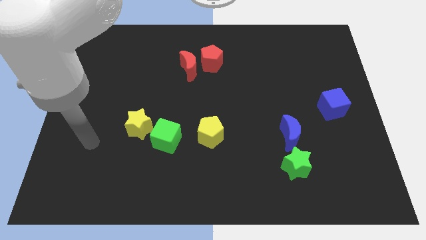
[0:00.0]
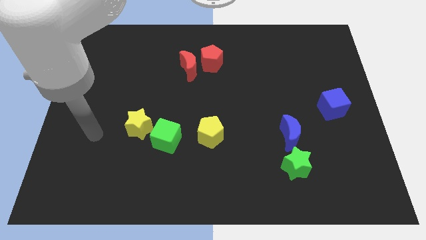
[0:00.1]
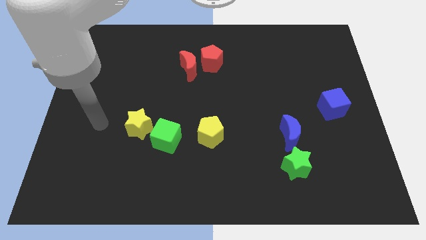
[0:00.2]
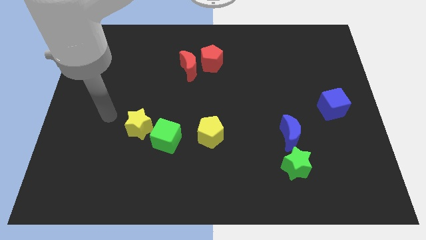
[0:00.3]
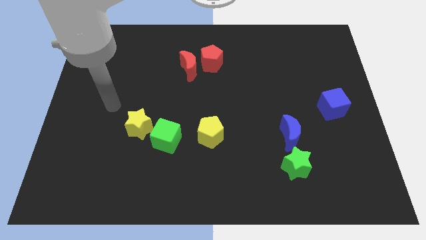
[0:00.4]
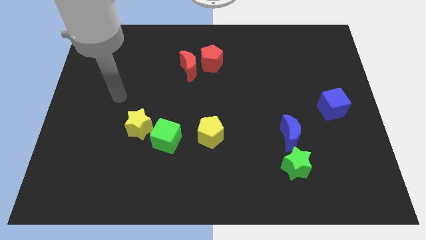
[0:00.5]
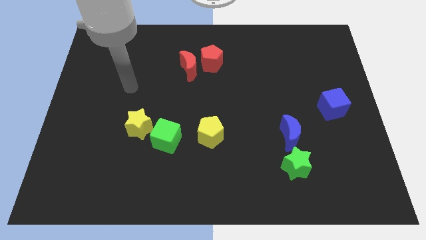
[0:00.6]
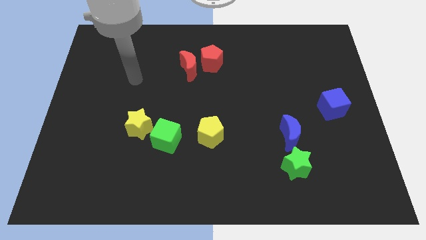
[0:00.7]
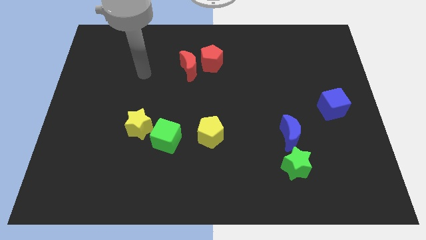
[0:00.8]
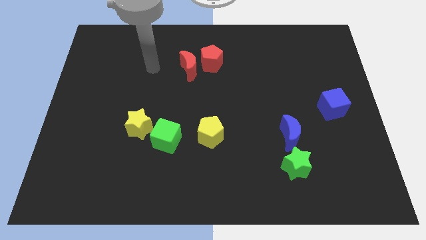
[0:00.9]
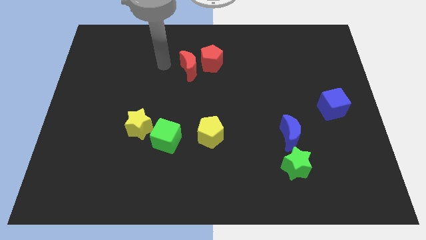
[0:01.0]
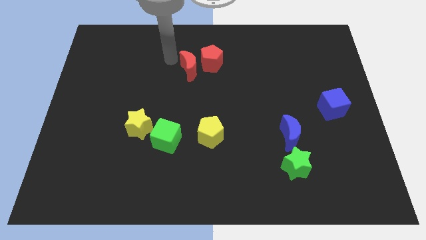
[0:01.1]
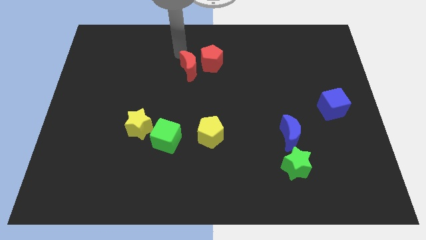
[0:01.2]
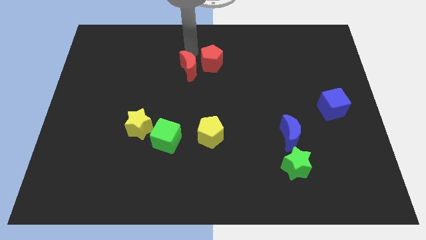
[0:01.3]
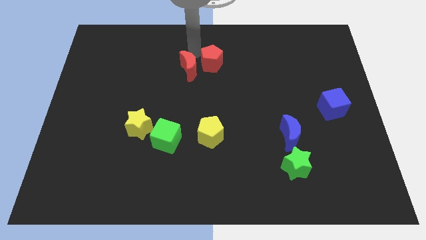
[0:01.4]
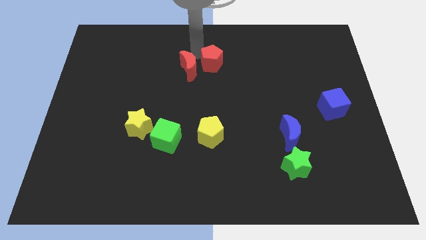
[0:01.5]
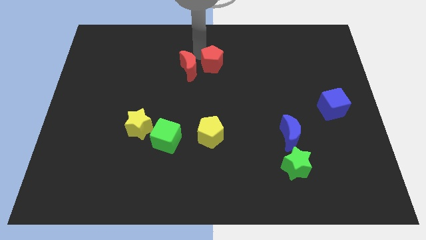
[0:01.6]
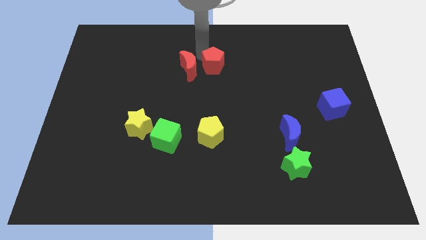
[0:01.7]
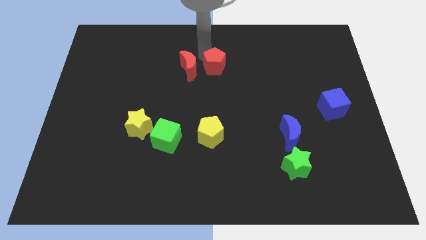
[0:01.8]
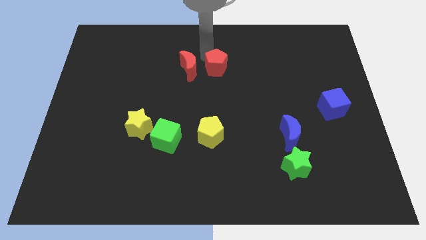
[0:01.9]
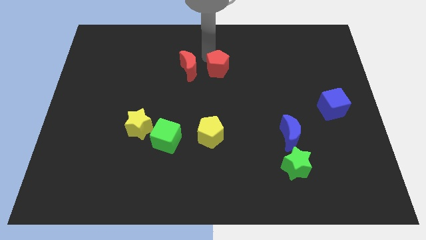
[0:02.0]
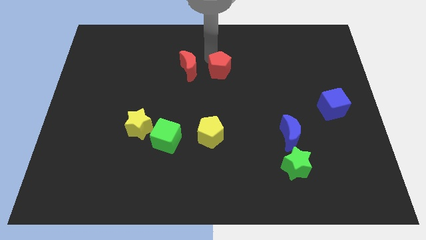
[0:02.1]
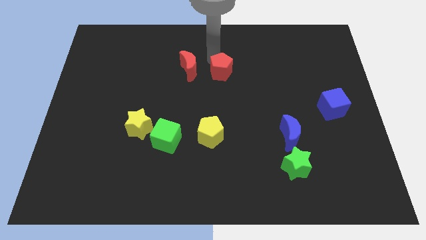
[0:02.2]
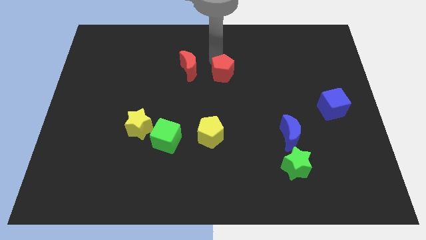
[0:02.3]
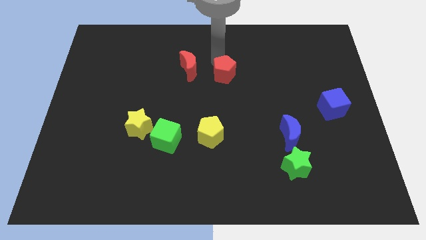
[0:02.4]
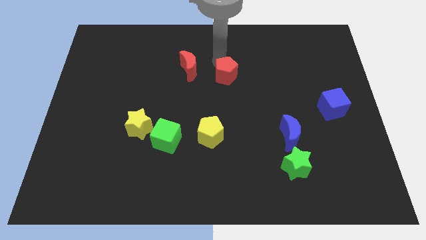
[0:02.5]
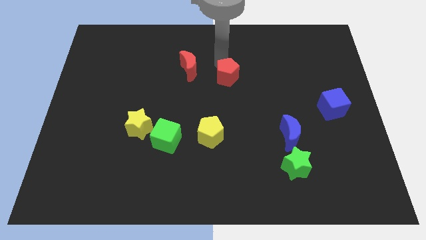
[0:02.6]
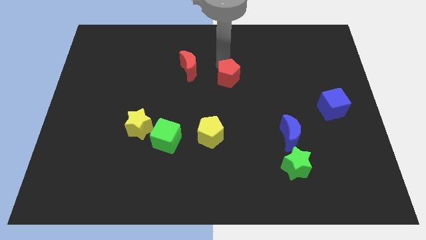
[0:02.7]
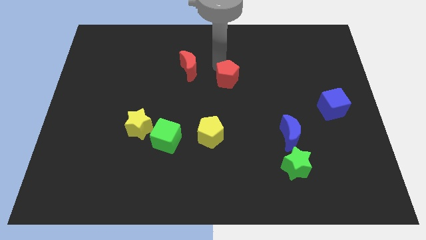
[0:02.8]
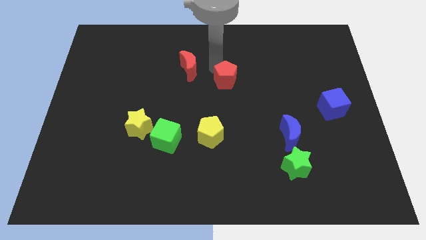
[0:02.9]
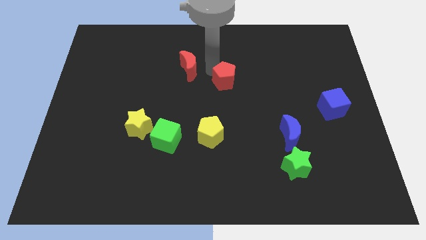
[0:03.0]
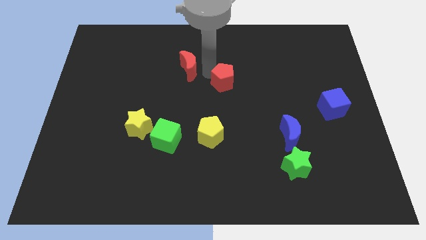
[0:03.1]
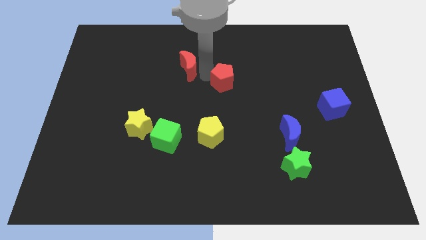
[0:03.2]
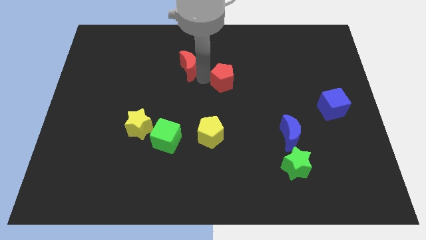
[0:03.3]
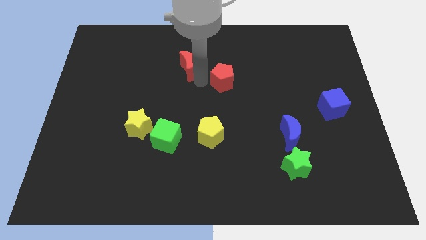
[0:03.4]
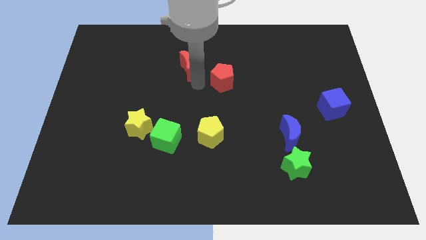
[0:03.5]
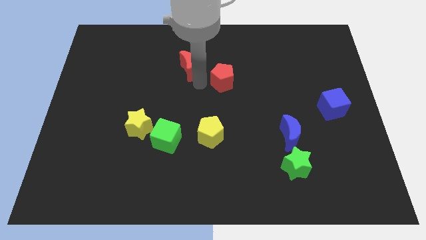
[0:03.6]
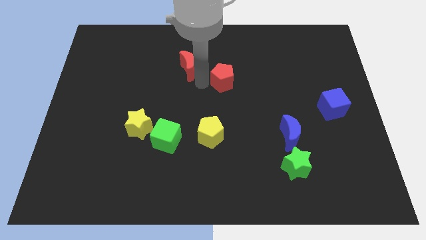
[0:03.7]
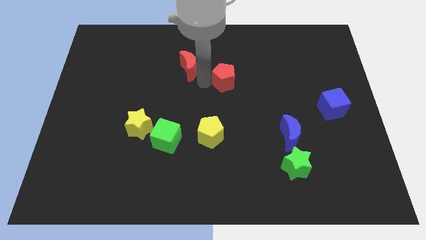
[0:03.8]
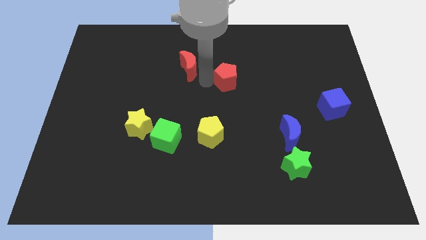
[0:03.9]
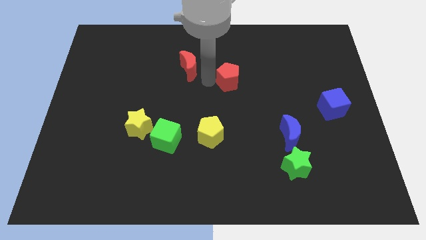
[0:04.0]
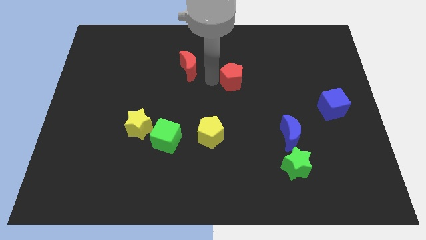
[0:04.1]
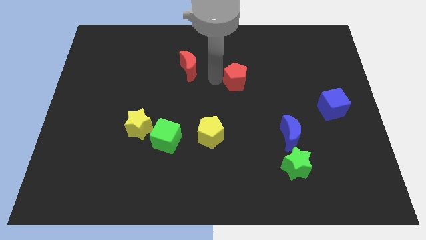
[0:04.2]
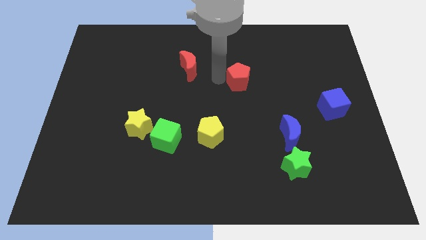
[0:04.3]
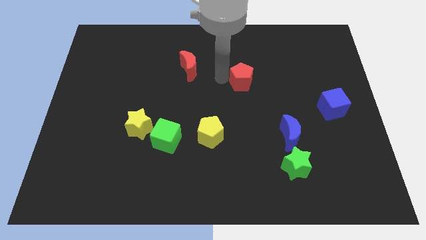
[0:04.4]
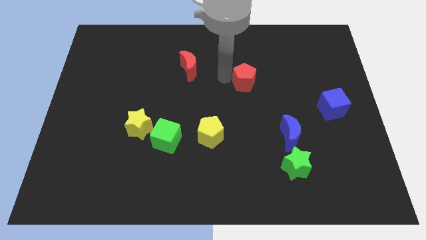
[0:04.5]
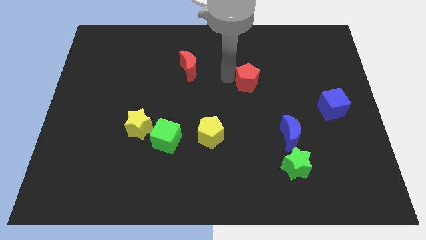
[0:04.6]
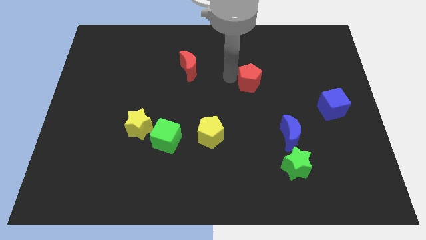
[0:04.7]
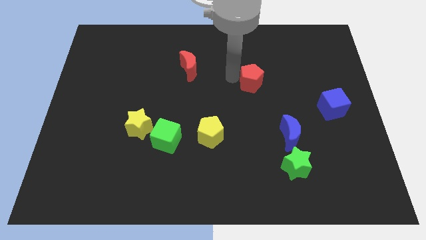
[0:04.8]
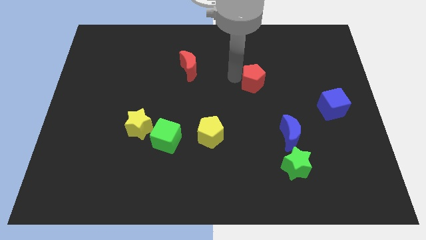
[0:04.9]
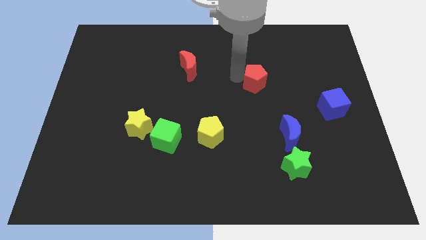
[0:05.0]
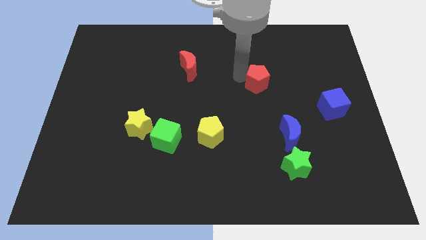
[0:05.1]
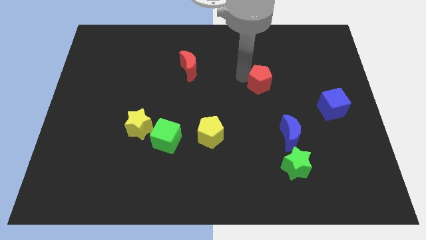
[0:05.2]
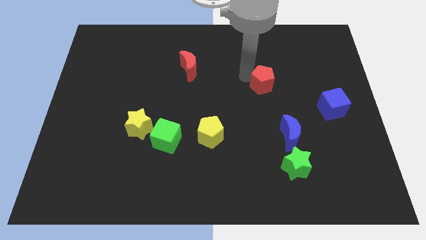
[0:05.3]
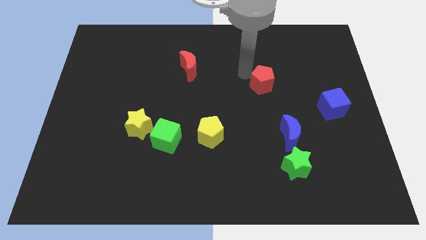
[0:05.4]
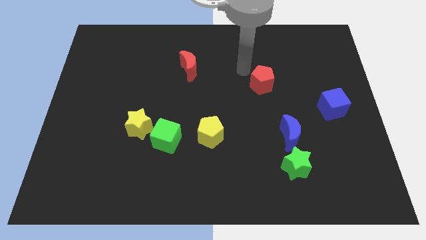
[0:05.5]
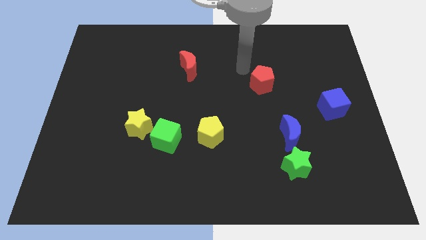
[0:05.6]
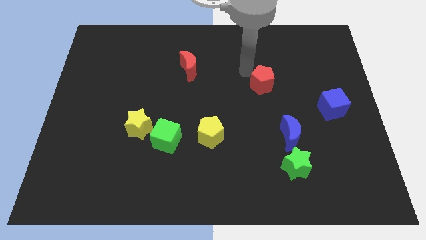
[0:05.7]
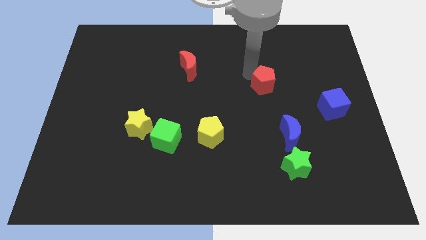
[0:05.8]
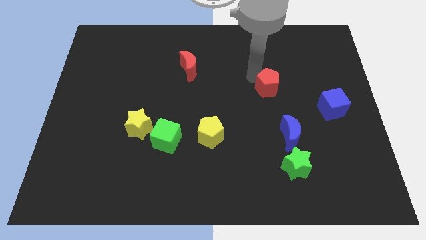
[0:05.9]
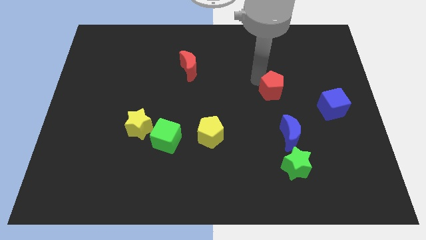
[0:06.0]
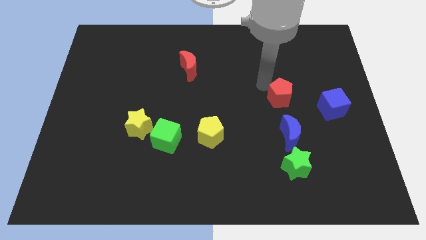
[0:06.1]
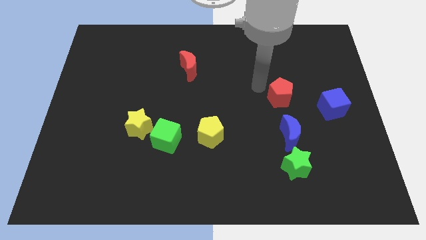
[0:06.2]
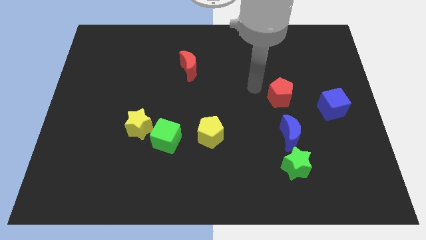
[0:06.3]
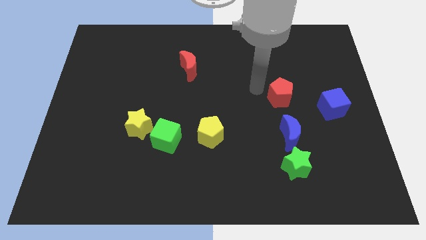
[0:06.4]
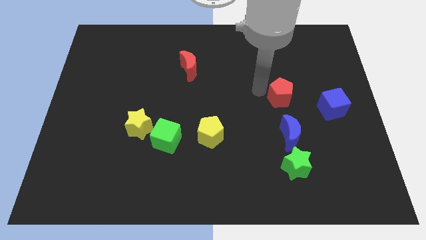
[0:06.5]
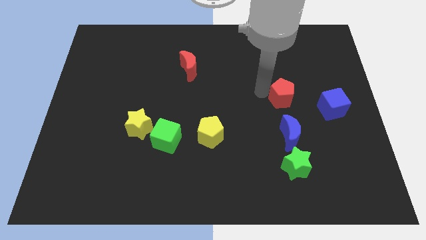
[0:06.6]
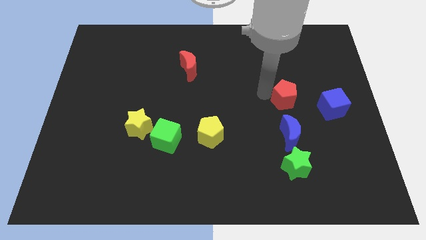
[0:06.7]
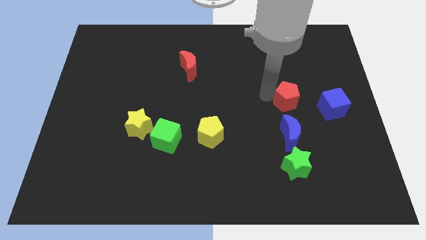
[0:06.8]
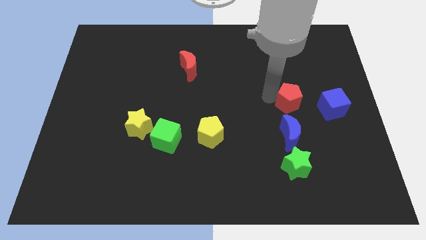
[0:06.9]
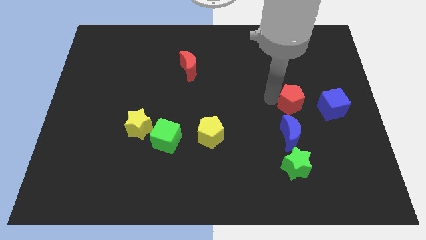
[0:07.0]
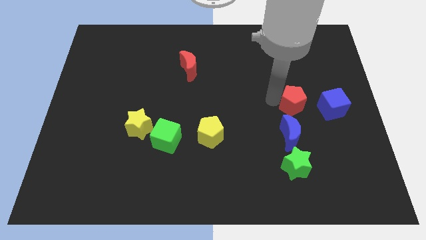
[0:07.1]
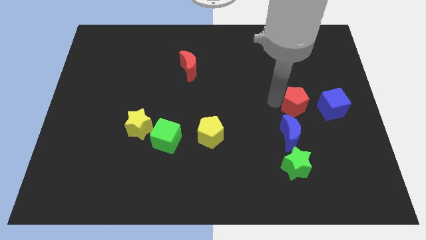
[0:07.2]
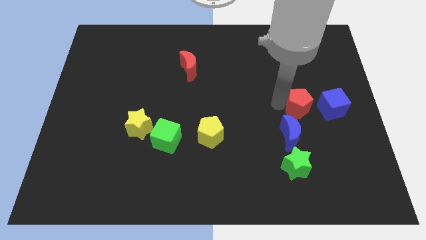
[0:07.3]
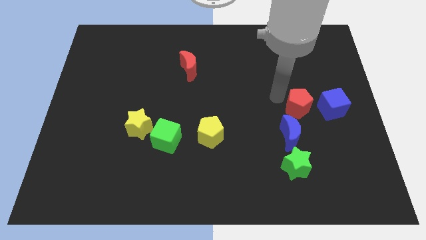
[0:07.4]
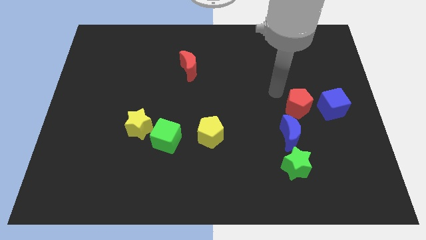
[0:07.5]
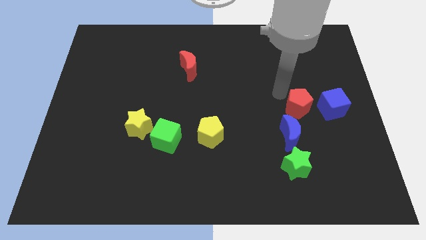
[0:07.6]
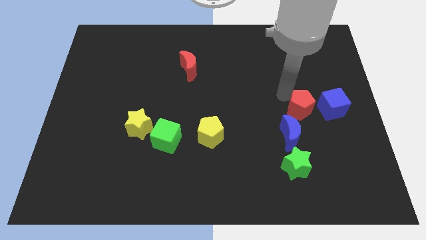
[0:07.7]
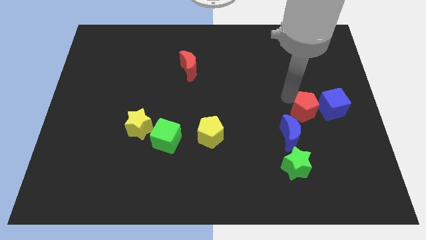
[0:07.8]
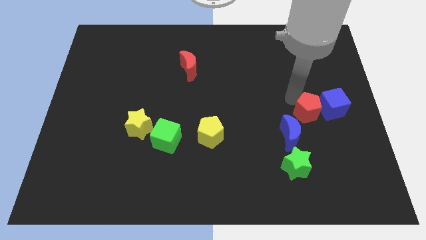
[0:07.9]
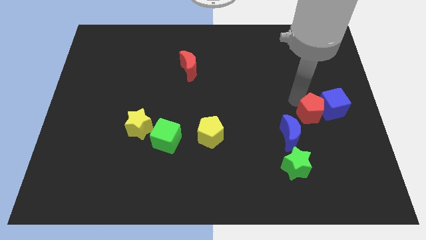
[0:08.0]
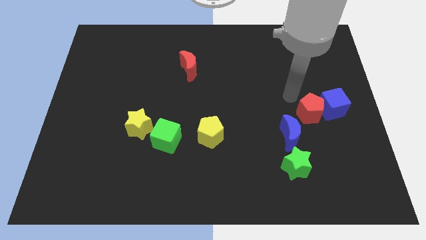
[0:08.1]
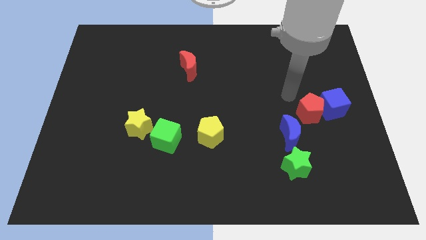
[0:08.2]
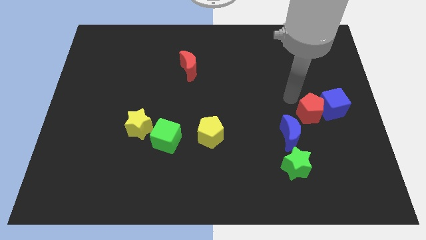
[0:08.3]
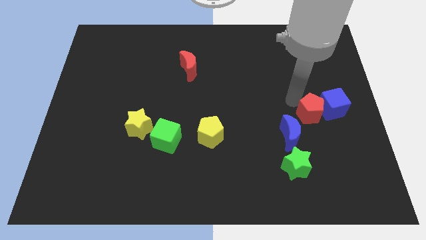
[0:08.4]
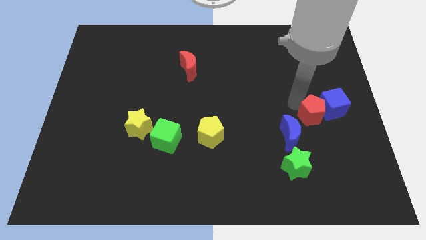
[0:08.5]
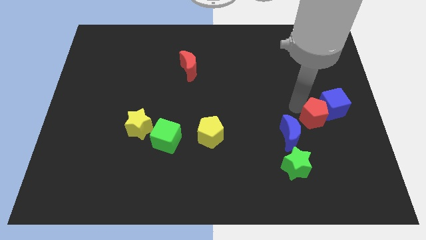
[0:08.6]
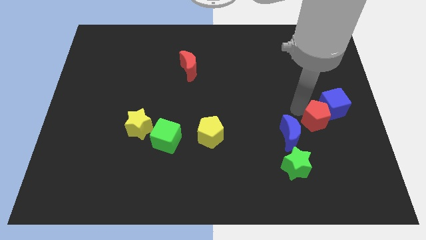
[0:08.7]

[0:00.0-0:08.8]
push the red pentagon to the right of the blue moon
